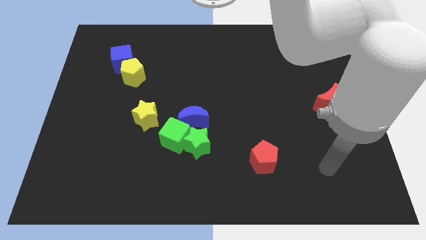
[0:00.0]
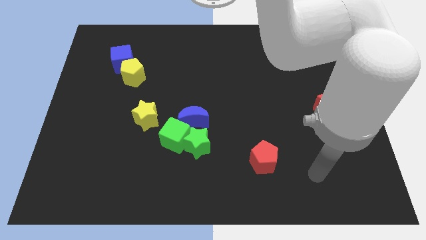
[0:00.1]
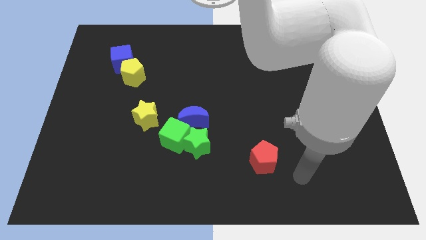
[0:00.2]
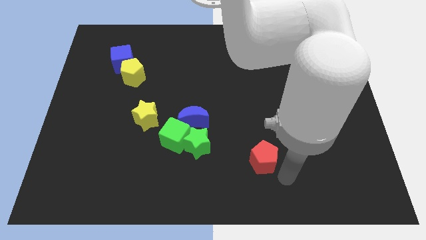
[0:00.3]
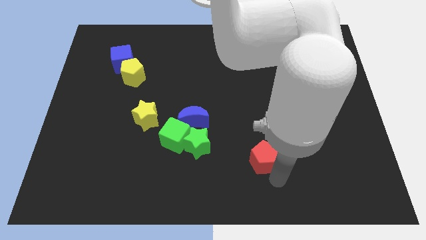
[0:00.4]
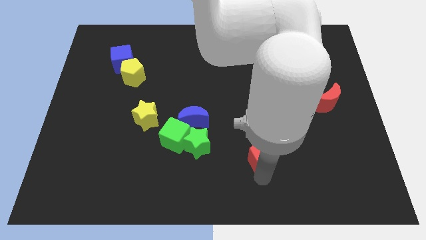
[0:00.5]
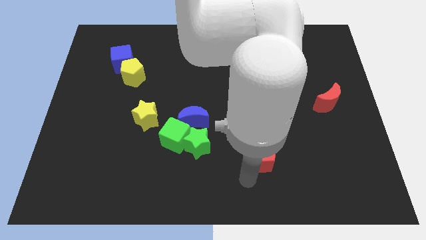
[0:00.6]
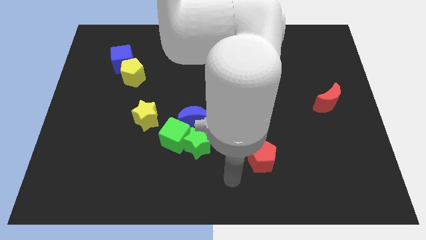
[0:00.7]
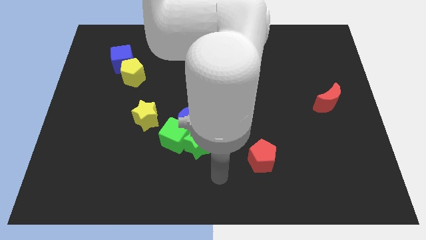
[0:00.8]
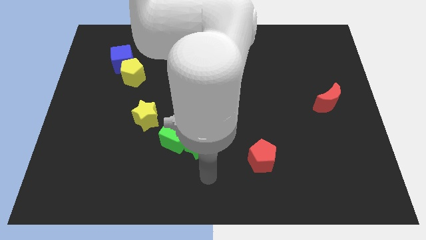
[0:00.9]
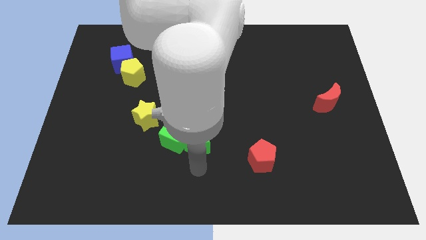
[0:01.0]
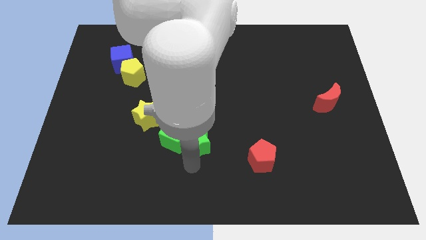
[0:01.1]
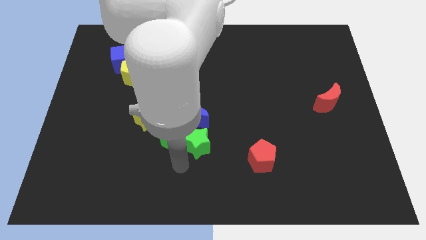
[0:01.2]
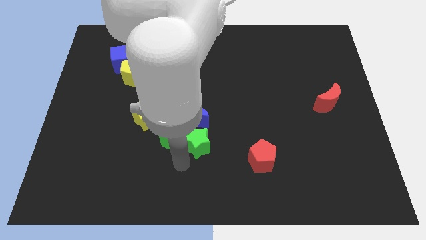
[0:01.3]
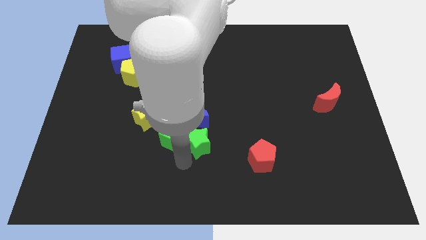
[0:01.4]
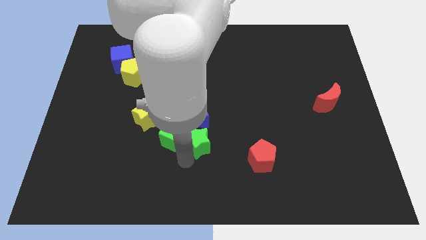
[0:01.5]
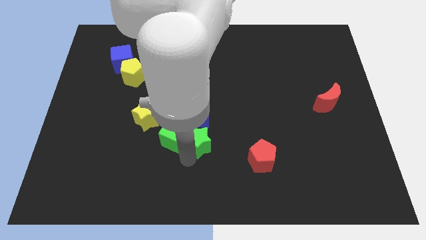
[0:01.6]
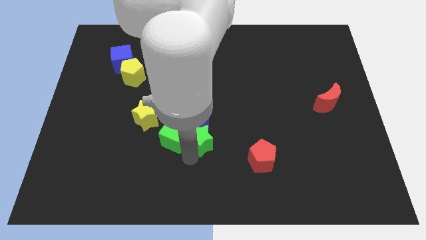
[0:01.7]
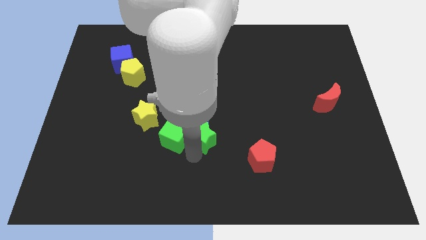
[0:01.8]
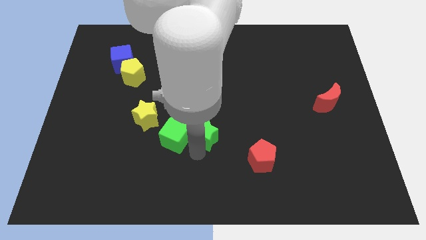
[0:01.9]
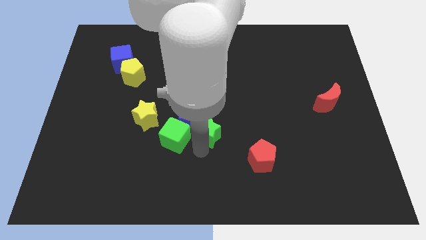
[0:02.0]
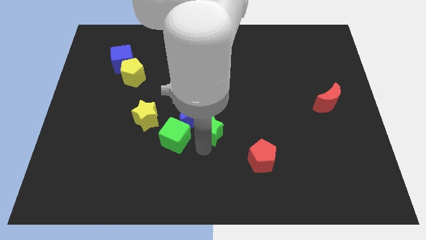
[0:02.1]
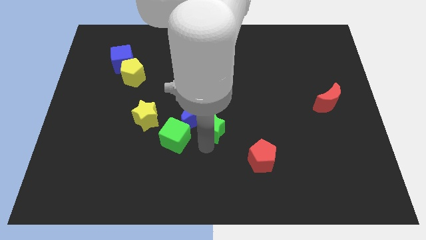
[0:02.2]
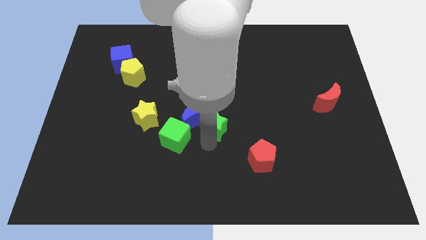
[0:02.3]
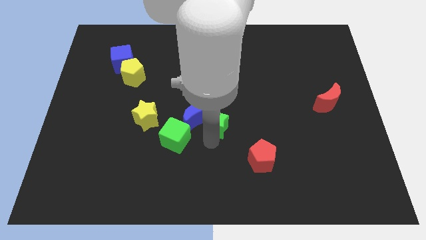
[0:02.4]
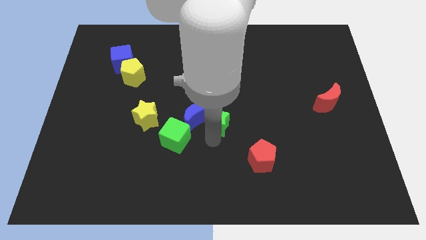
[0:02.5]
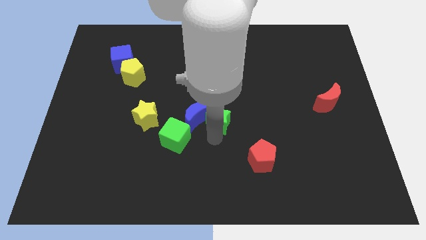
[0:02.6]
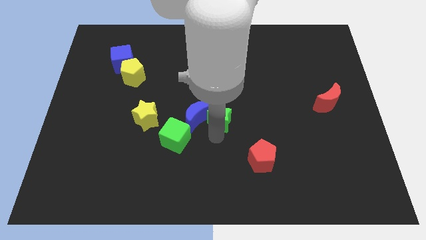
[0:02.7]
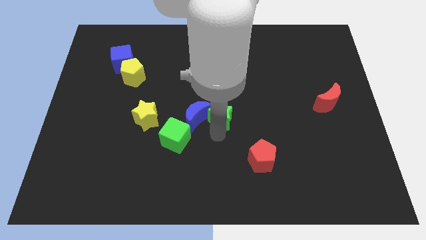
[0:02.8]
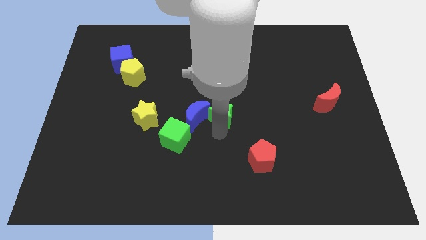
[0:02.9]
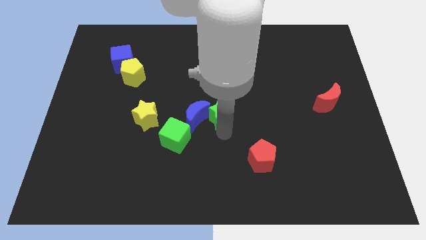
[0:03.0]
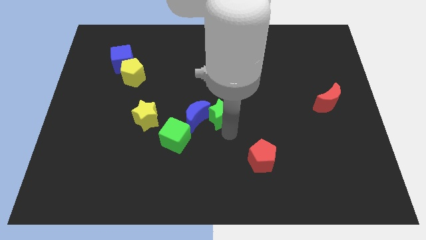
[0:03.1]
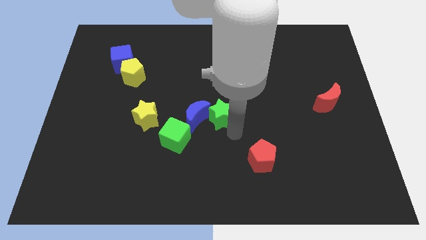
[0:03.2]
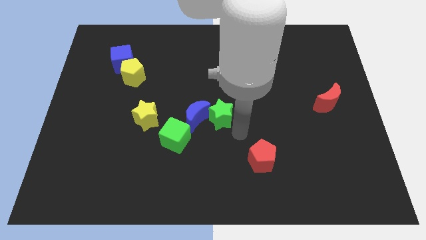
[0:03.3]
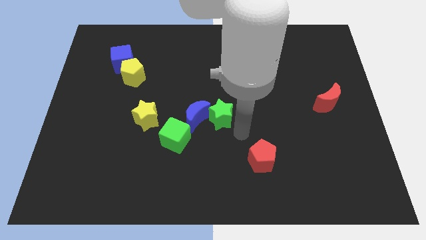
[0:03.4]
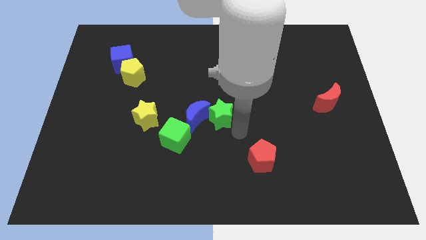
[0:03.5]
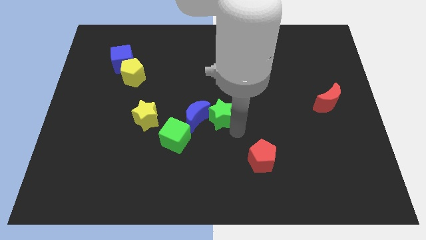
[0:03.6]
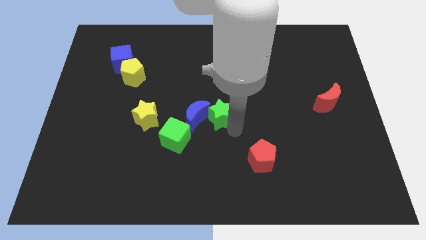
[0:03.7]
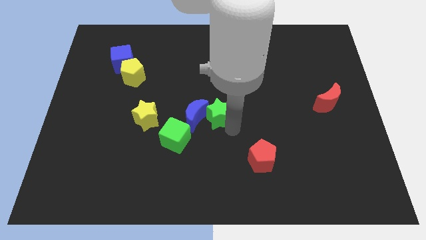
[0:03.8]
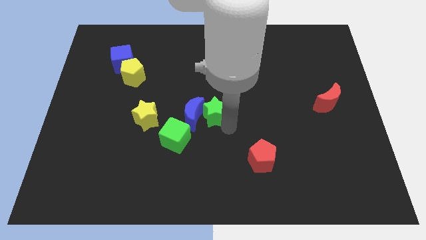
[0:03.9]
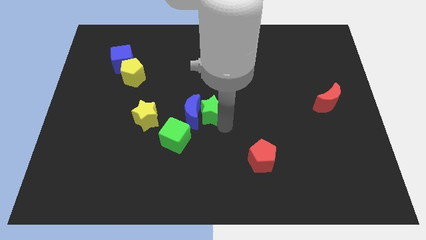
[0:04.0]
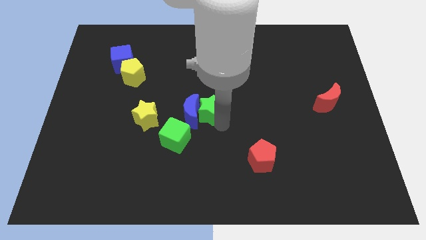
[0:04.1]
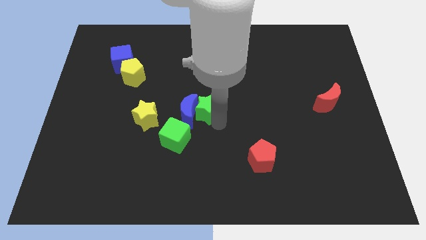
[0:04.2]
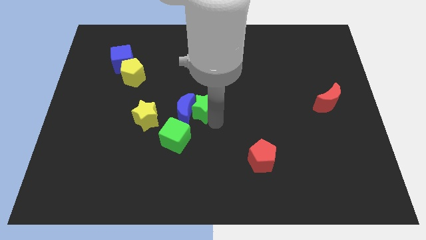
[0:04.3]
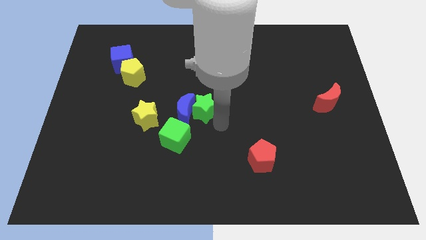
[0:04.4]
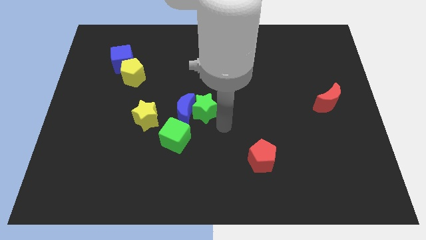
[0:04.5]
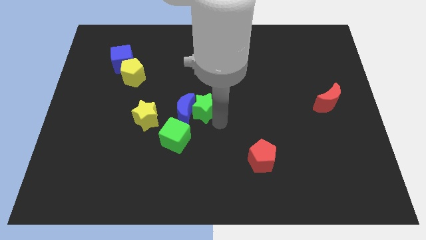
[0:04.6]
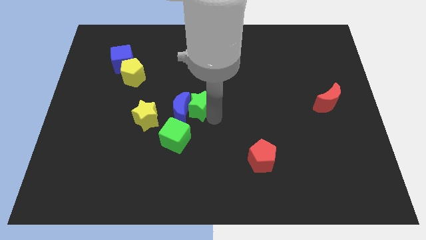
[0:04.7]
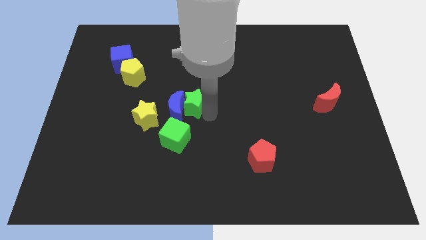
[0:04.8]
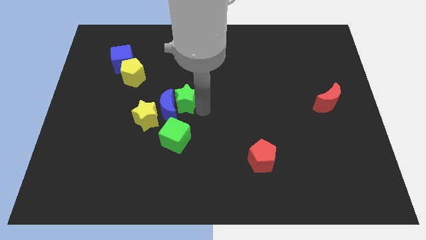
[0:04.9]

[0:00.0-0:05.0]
push the green star up and to the left diagonally a bit

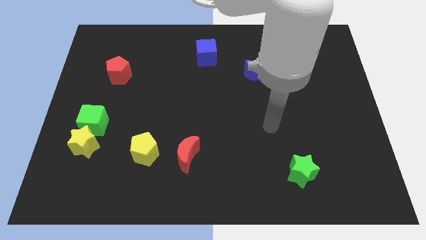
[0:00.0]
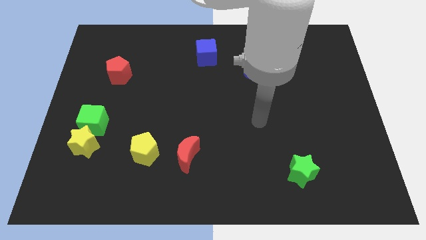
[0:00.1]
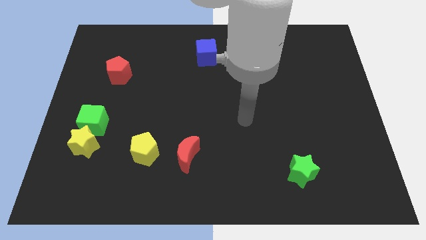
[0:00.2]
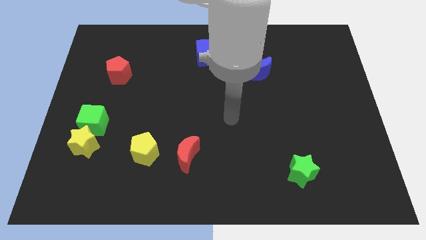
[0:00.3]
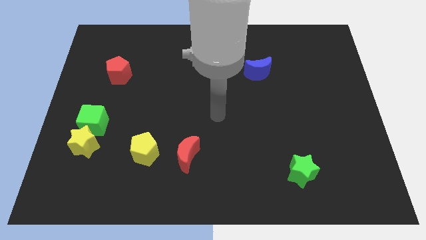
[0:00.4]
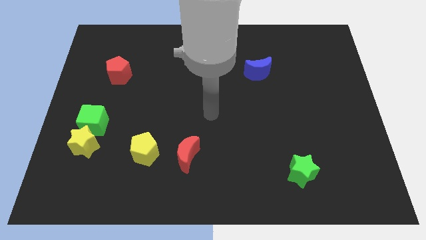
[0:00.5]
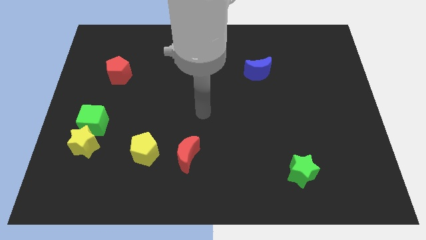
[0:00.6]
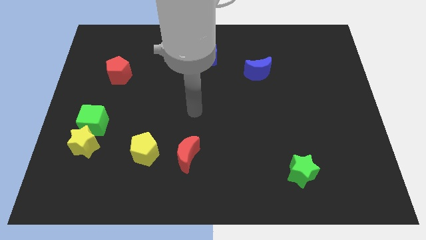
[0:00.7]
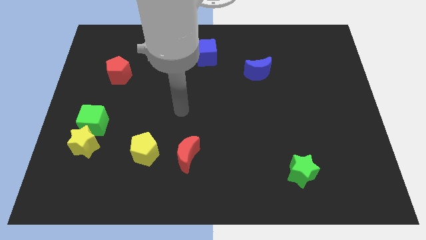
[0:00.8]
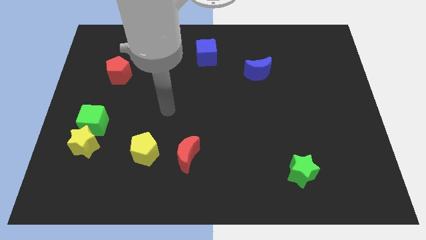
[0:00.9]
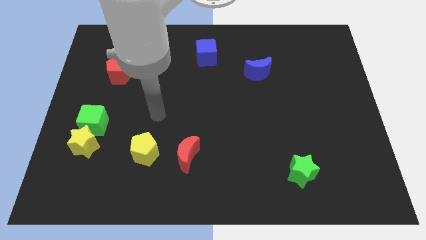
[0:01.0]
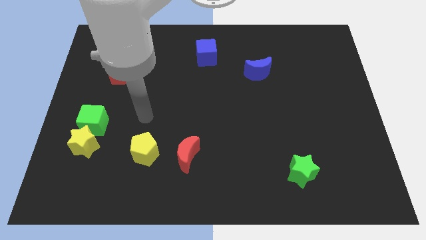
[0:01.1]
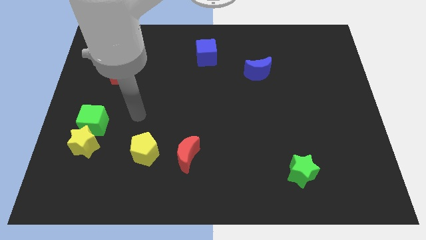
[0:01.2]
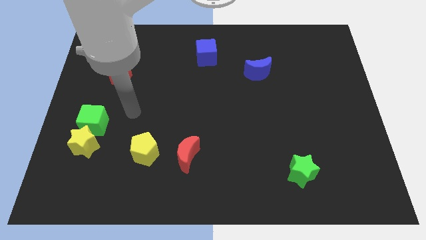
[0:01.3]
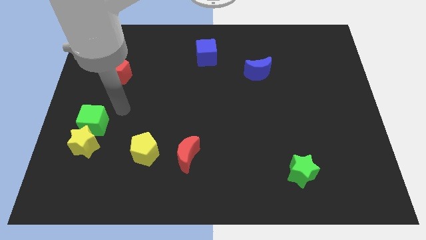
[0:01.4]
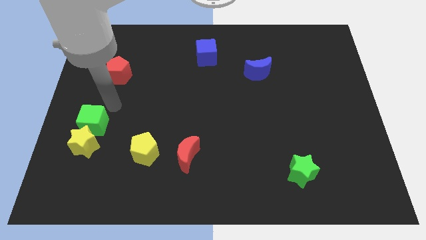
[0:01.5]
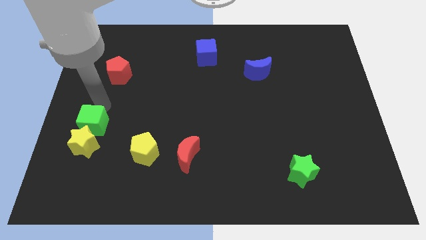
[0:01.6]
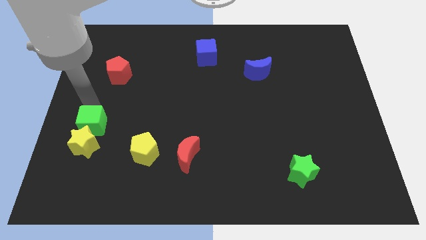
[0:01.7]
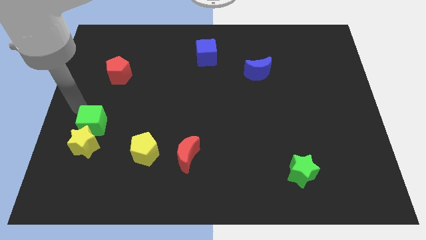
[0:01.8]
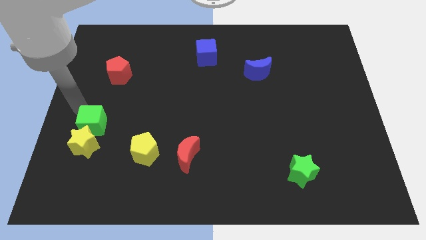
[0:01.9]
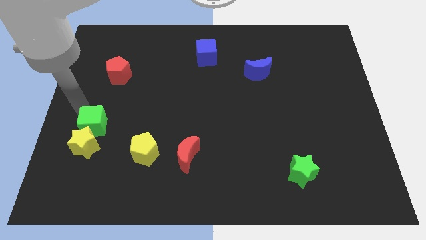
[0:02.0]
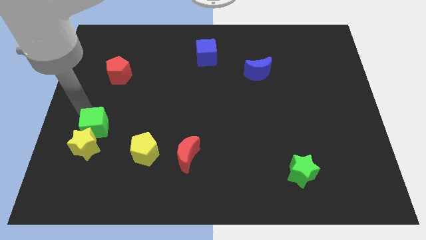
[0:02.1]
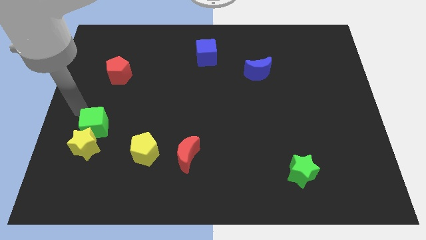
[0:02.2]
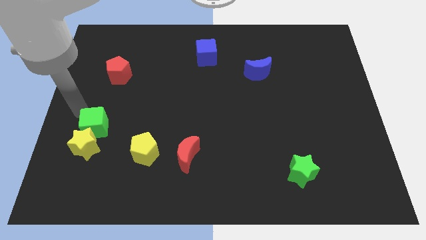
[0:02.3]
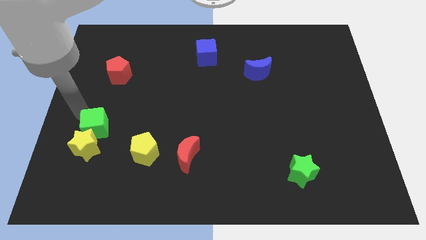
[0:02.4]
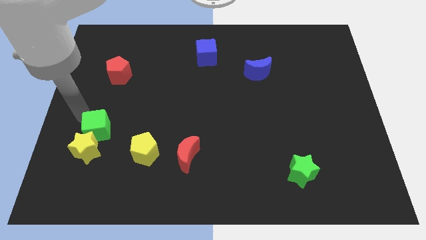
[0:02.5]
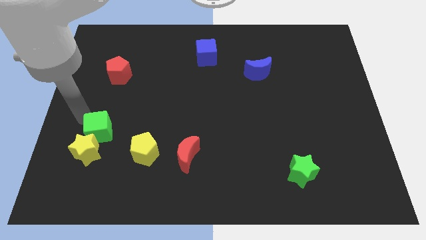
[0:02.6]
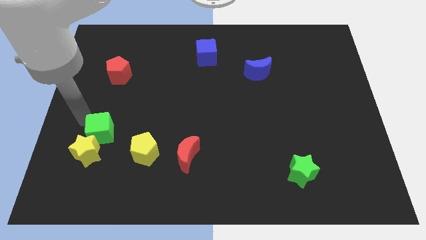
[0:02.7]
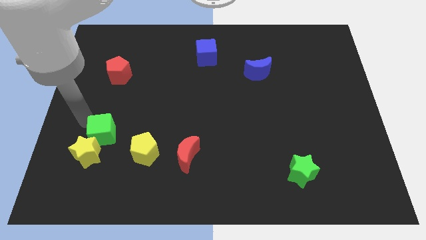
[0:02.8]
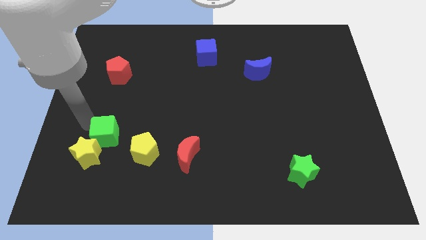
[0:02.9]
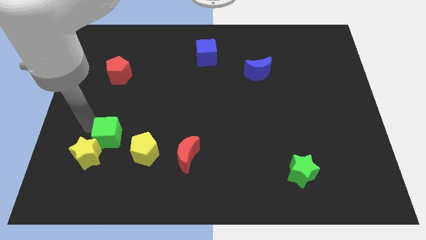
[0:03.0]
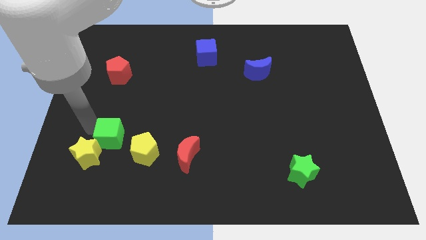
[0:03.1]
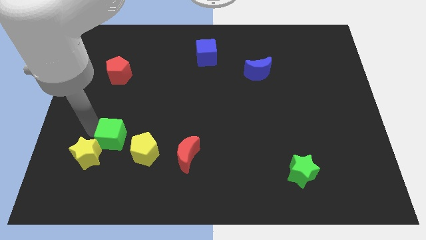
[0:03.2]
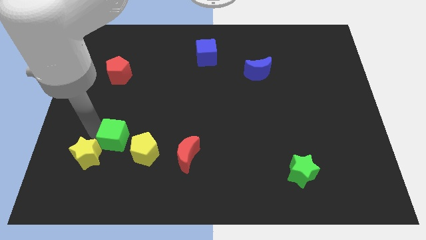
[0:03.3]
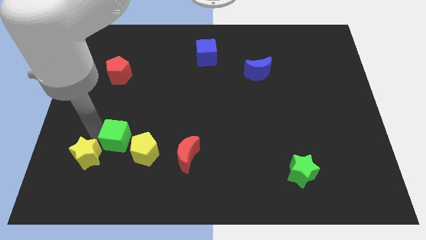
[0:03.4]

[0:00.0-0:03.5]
push the green cube a bit down and then right
